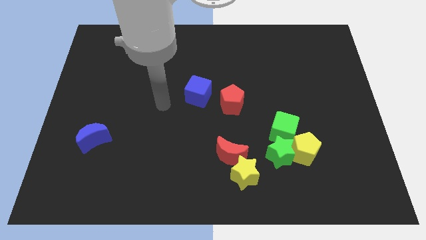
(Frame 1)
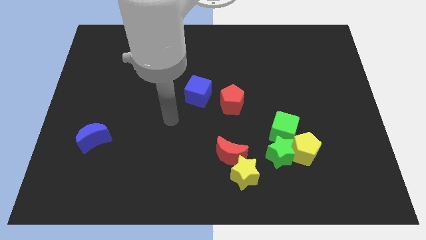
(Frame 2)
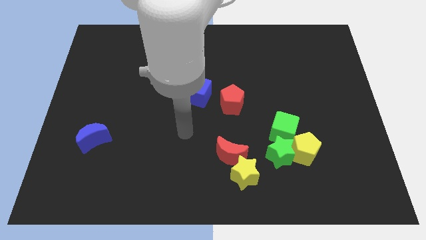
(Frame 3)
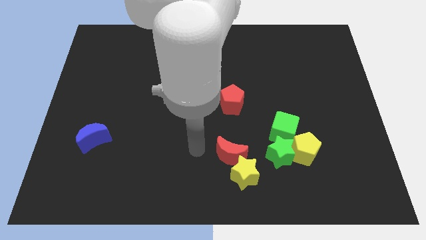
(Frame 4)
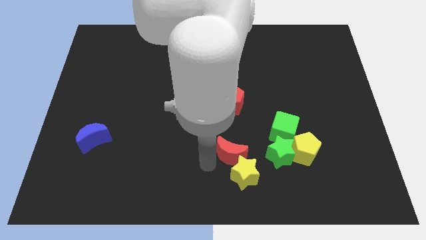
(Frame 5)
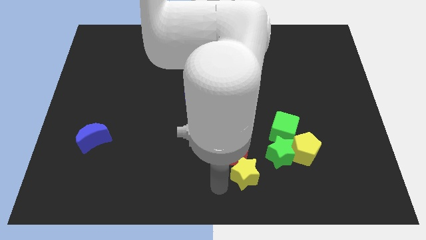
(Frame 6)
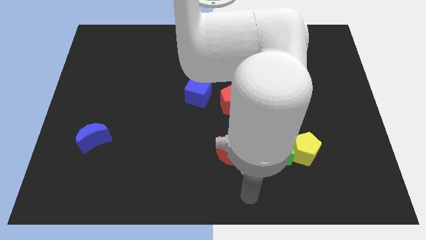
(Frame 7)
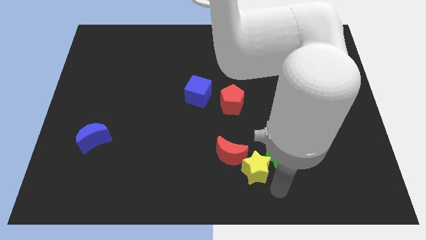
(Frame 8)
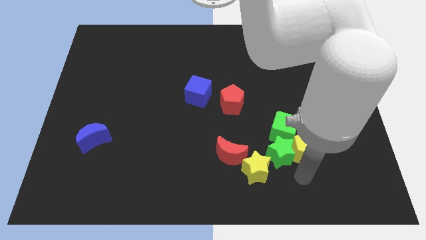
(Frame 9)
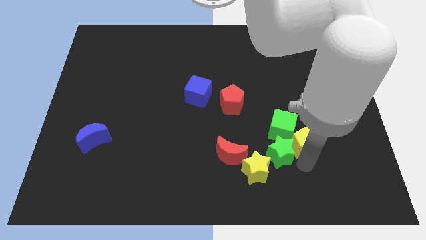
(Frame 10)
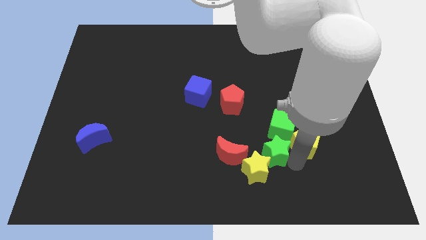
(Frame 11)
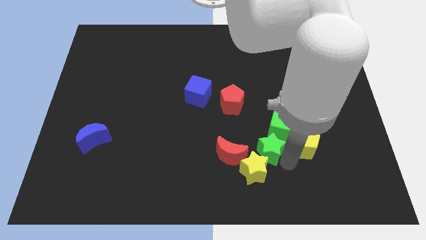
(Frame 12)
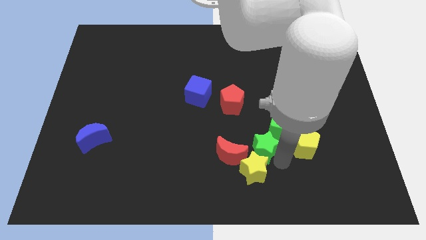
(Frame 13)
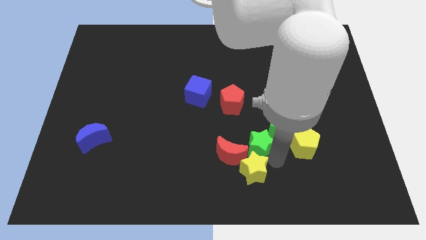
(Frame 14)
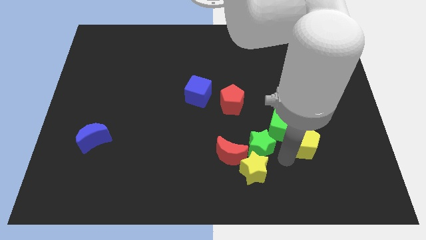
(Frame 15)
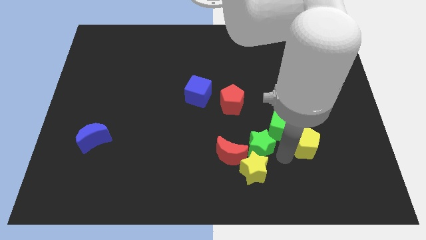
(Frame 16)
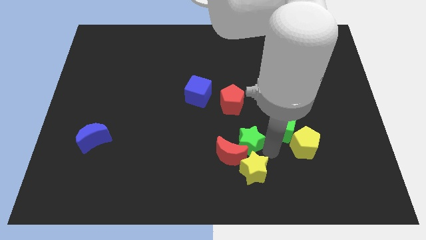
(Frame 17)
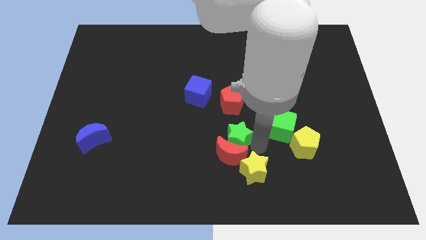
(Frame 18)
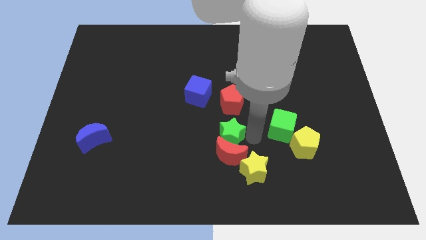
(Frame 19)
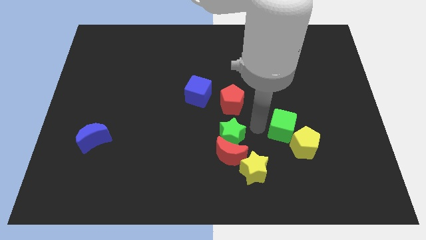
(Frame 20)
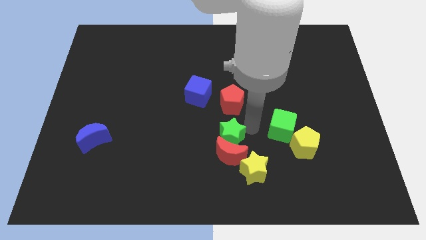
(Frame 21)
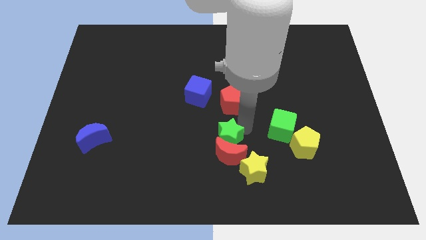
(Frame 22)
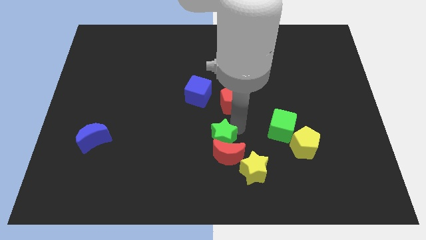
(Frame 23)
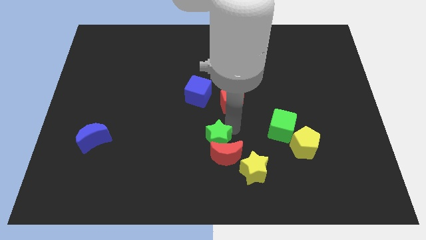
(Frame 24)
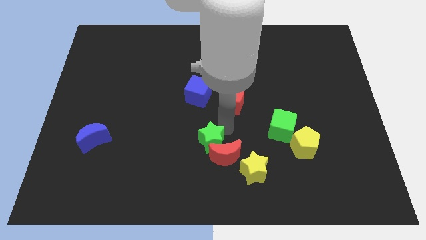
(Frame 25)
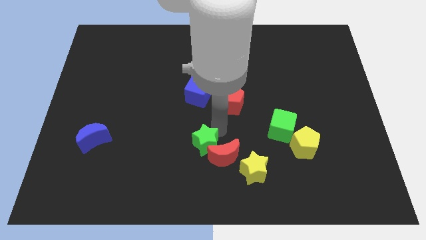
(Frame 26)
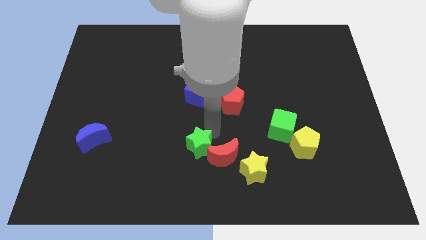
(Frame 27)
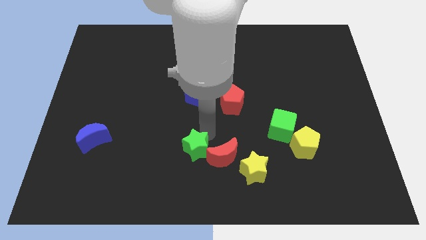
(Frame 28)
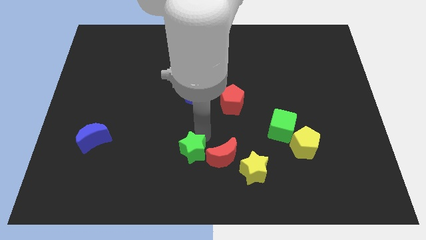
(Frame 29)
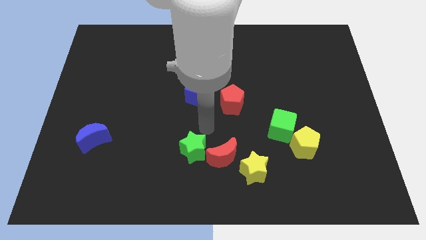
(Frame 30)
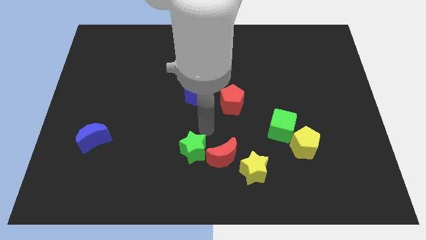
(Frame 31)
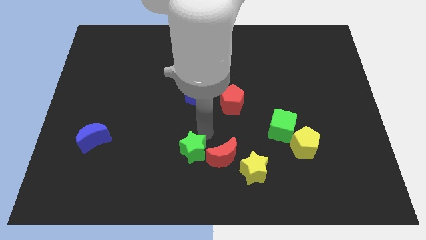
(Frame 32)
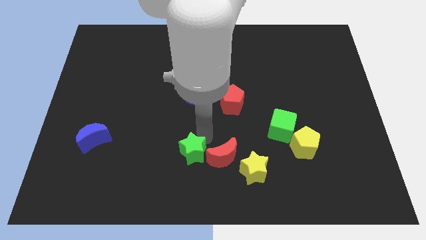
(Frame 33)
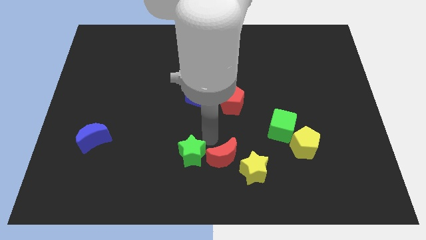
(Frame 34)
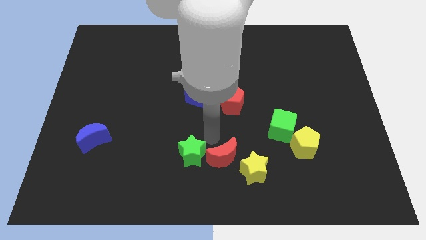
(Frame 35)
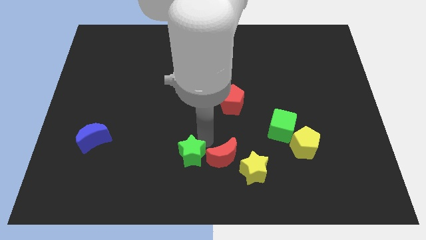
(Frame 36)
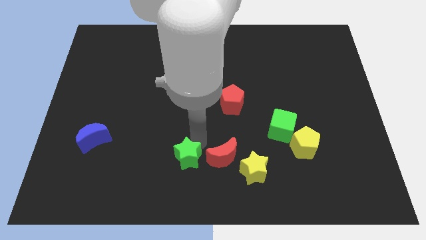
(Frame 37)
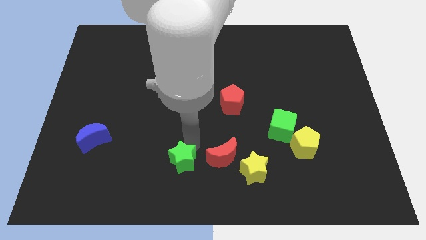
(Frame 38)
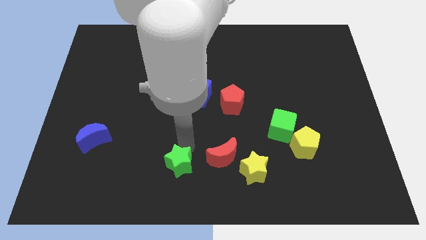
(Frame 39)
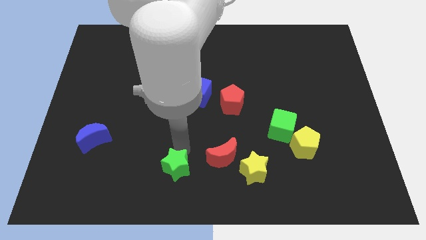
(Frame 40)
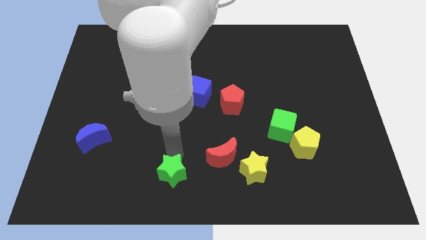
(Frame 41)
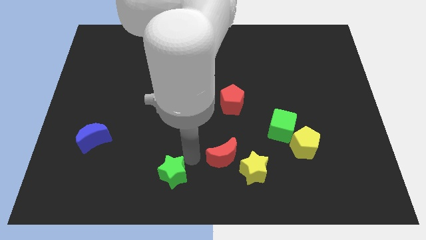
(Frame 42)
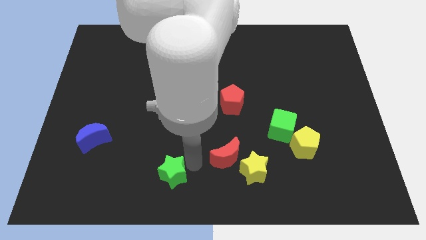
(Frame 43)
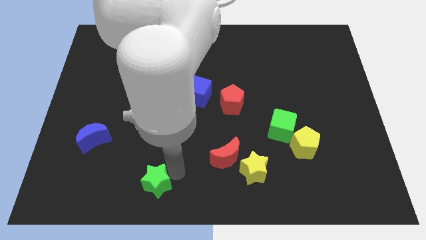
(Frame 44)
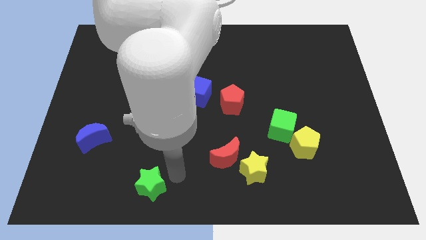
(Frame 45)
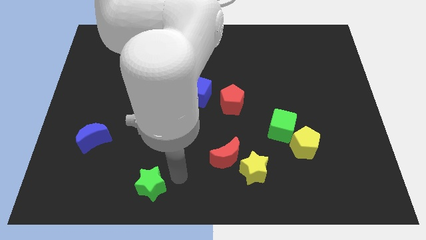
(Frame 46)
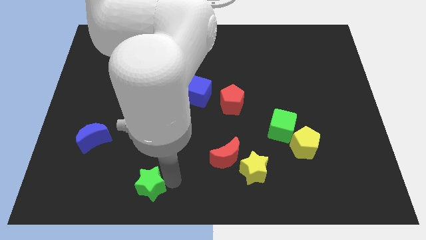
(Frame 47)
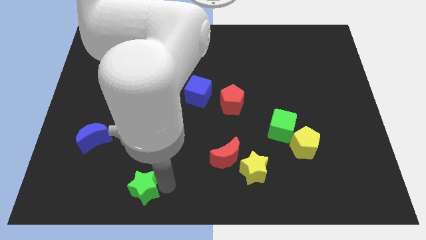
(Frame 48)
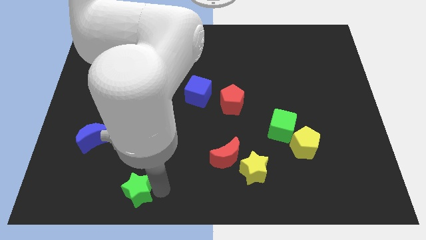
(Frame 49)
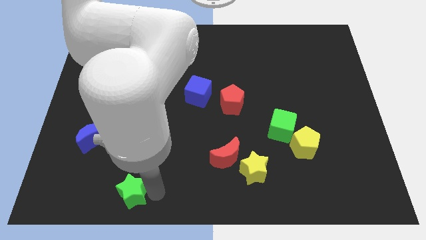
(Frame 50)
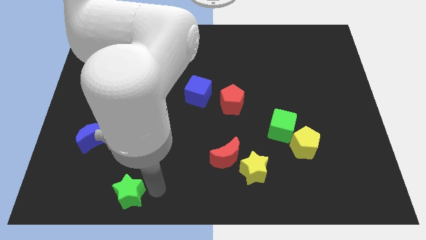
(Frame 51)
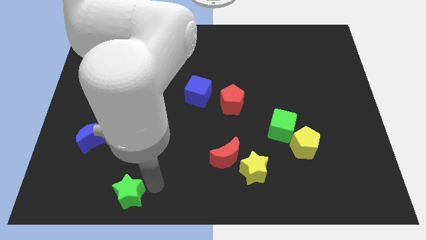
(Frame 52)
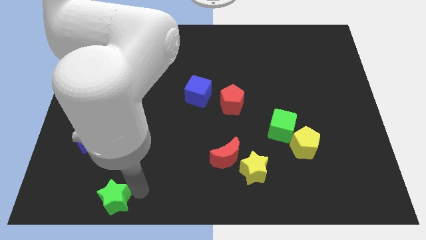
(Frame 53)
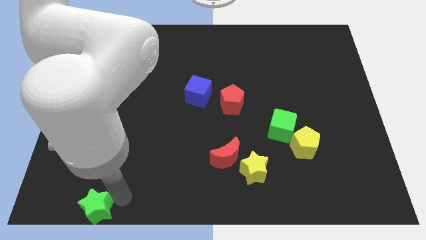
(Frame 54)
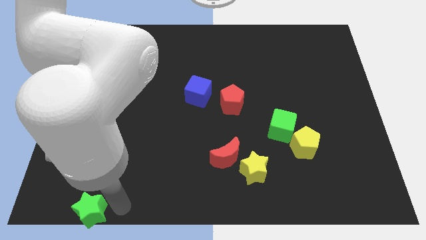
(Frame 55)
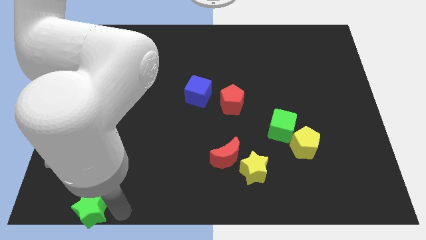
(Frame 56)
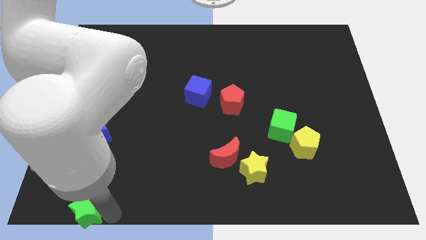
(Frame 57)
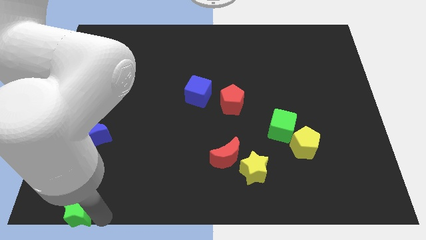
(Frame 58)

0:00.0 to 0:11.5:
move the green star to the bottom left of the board
